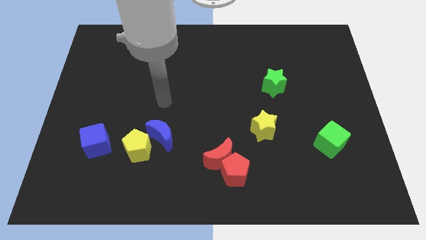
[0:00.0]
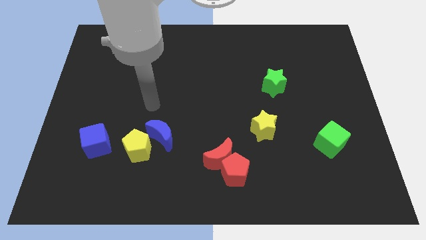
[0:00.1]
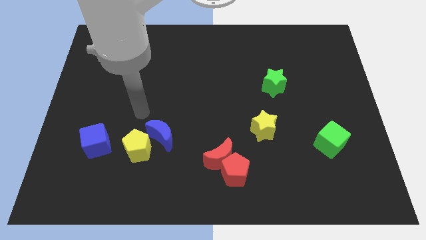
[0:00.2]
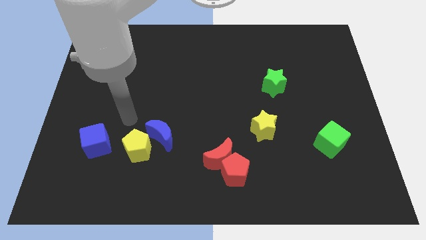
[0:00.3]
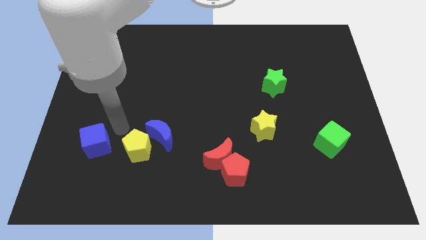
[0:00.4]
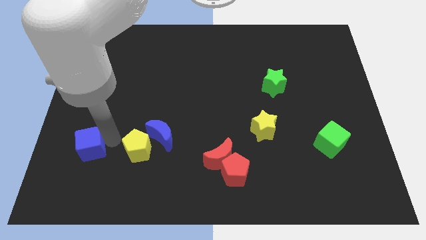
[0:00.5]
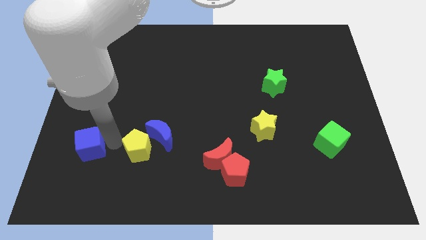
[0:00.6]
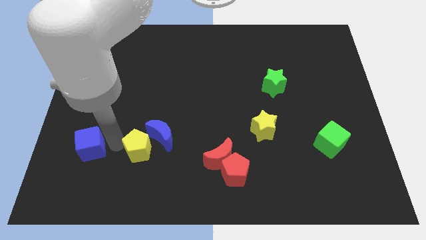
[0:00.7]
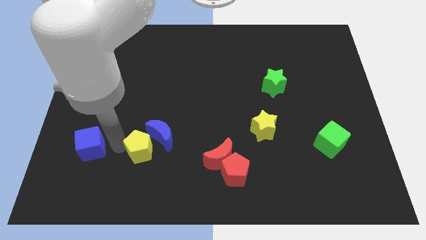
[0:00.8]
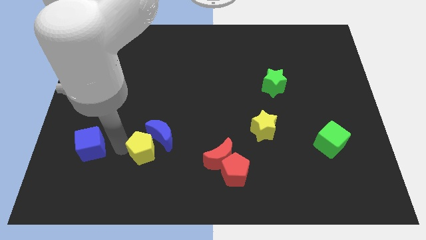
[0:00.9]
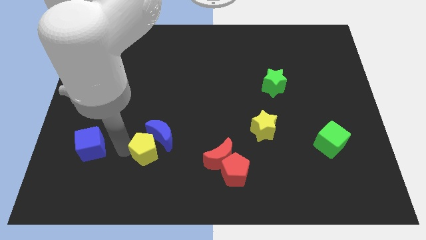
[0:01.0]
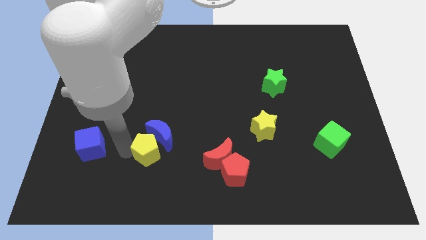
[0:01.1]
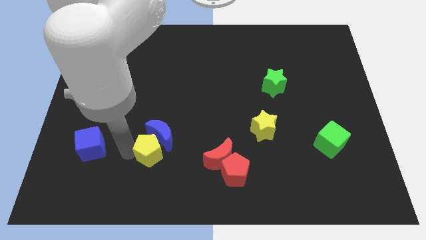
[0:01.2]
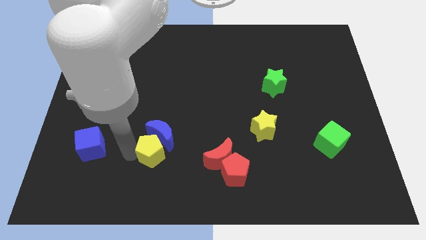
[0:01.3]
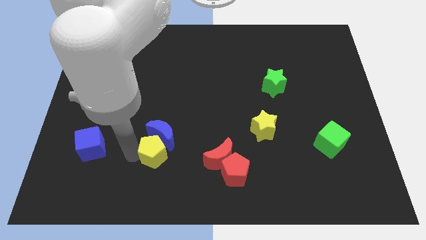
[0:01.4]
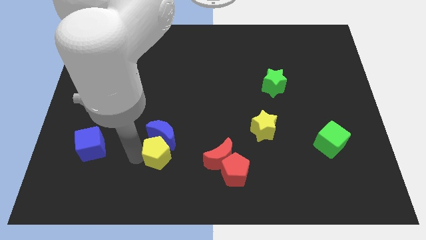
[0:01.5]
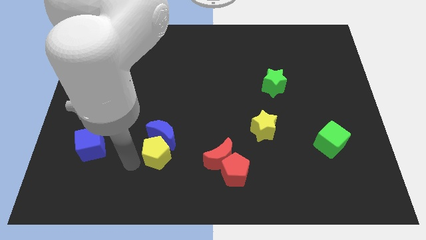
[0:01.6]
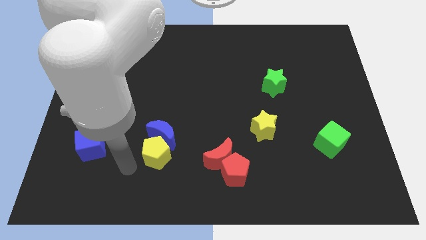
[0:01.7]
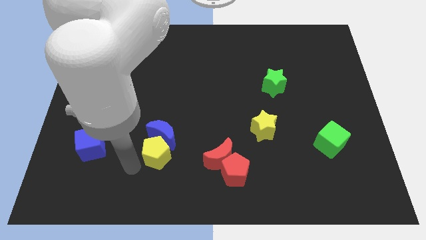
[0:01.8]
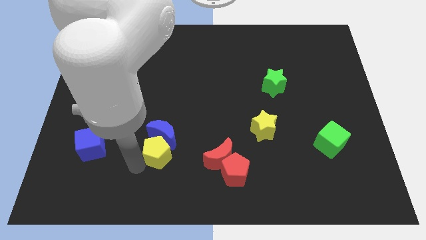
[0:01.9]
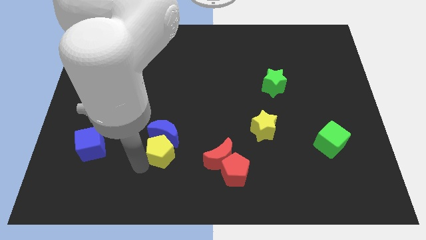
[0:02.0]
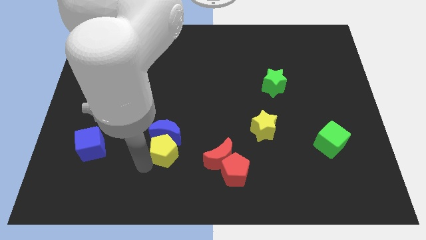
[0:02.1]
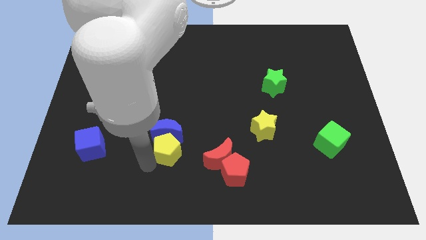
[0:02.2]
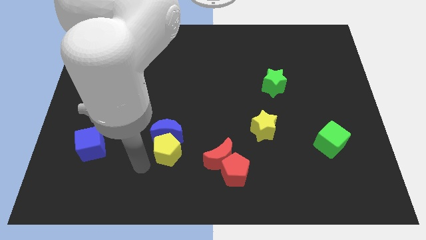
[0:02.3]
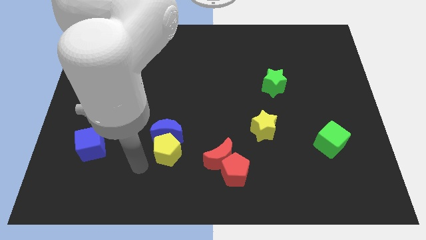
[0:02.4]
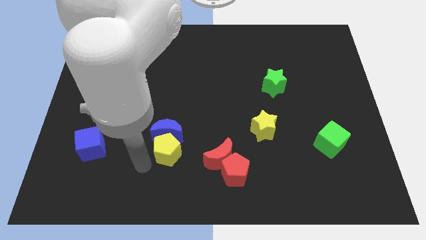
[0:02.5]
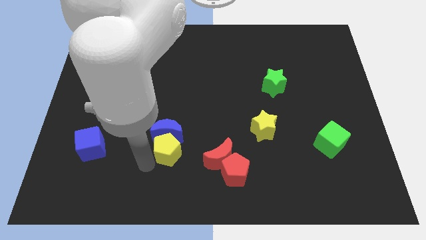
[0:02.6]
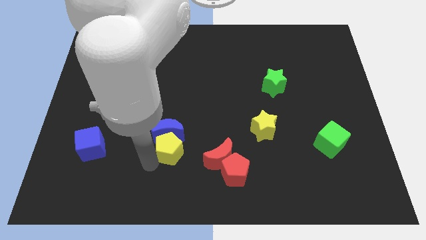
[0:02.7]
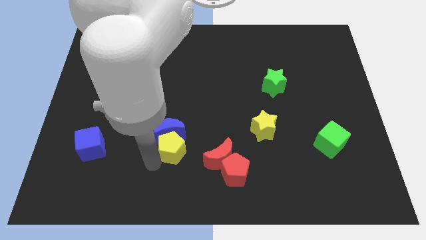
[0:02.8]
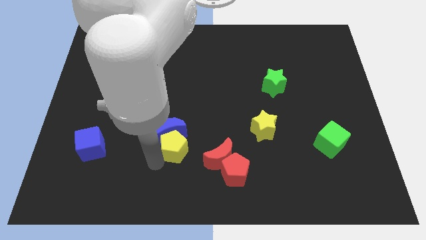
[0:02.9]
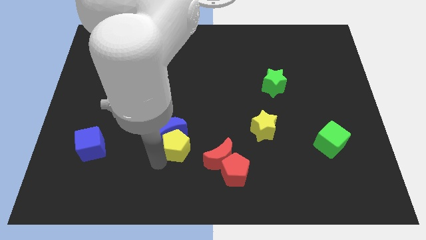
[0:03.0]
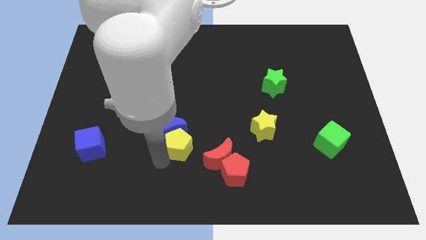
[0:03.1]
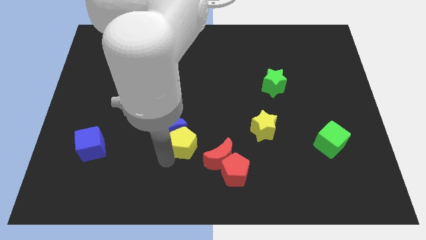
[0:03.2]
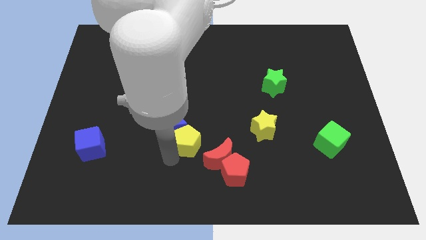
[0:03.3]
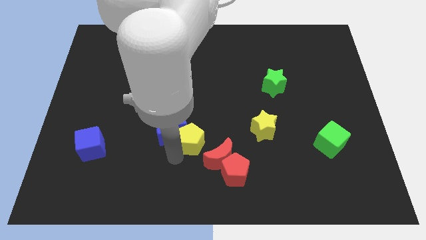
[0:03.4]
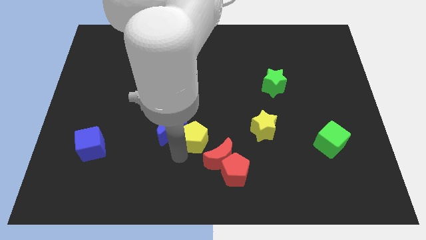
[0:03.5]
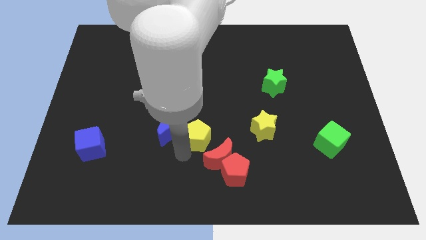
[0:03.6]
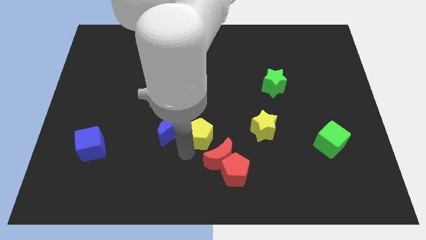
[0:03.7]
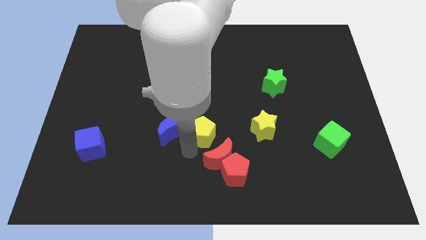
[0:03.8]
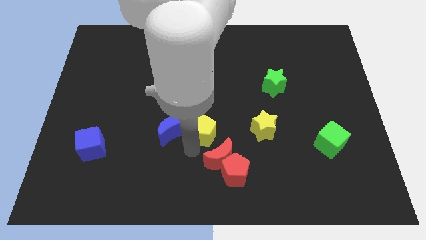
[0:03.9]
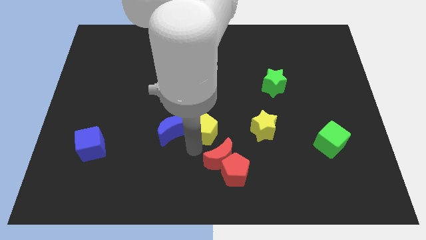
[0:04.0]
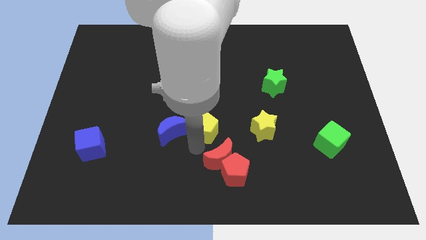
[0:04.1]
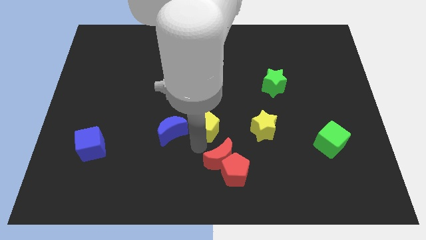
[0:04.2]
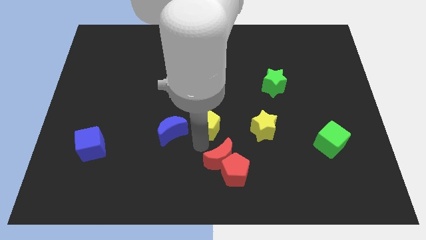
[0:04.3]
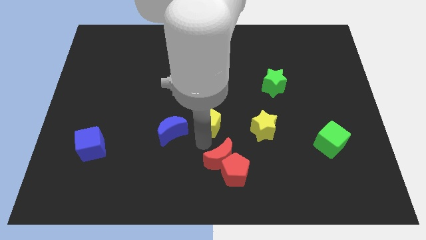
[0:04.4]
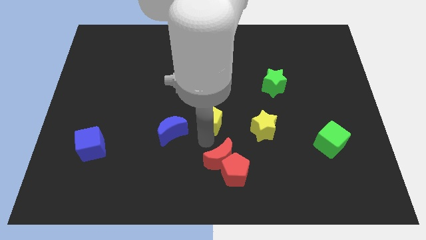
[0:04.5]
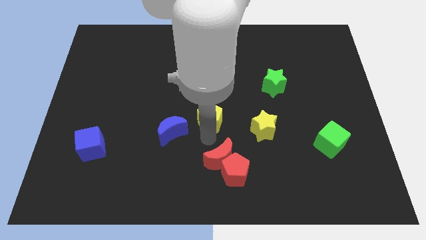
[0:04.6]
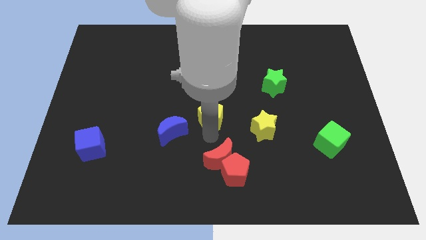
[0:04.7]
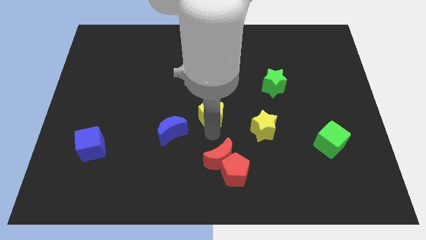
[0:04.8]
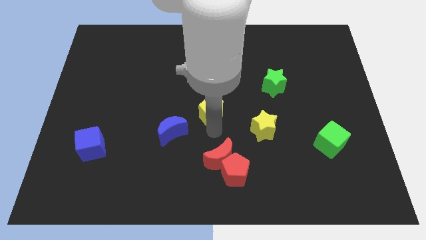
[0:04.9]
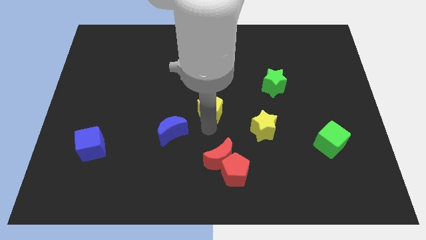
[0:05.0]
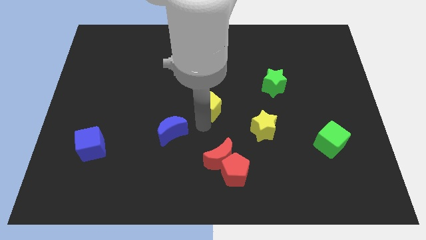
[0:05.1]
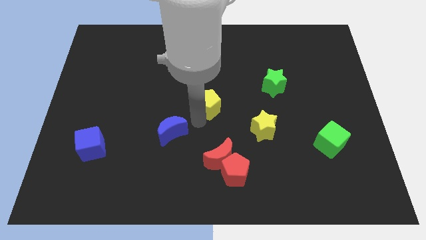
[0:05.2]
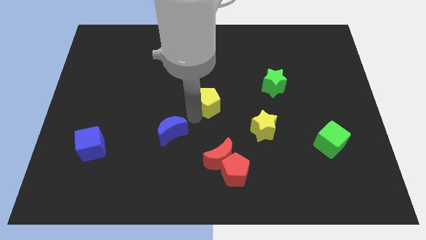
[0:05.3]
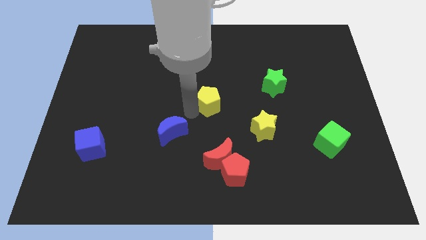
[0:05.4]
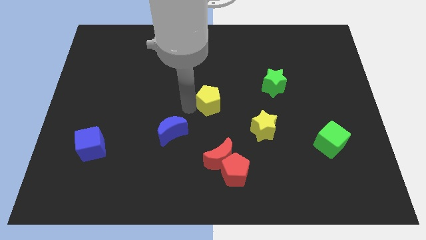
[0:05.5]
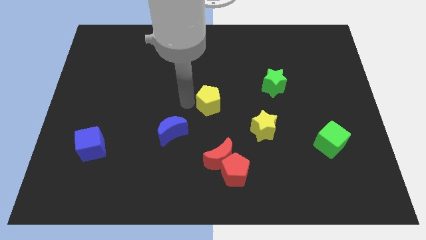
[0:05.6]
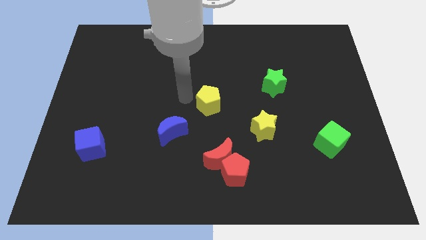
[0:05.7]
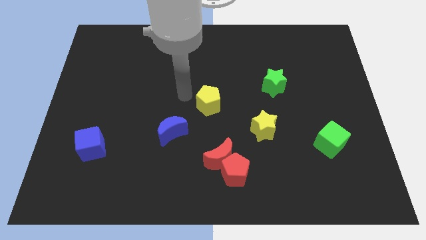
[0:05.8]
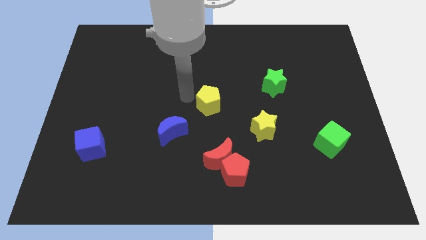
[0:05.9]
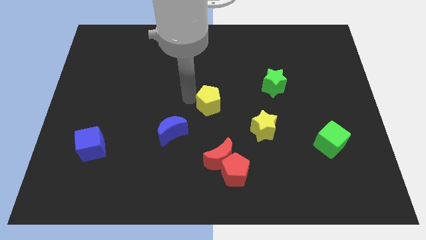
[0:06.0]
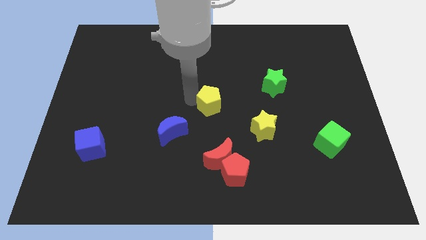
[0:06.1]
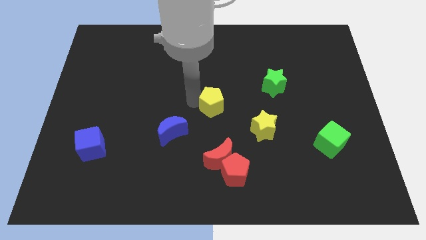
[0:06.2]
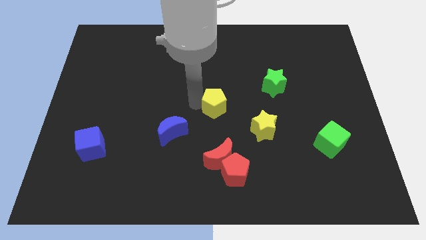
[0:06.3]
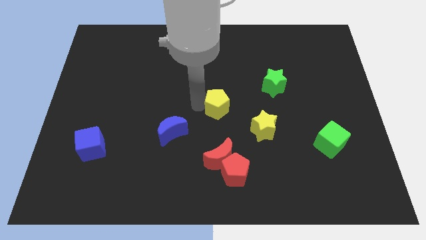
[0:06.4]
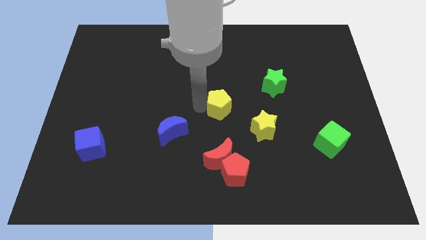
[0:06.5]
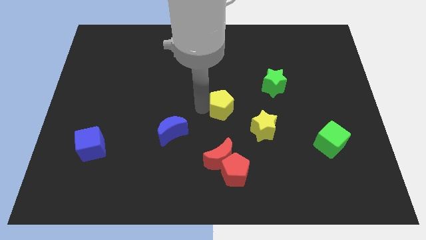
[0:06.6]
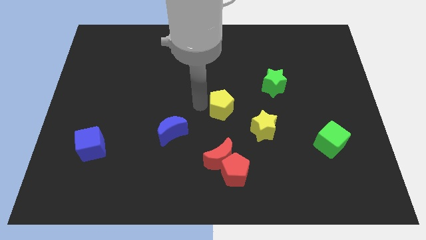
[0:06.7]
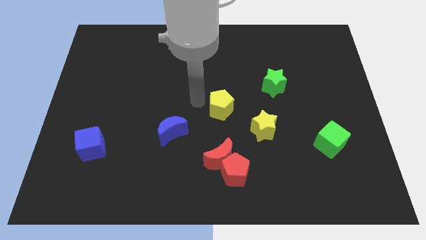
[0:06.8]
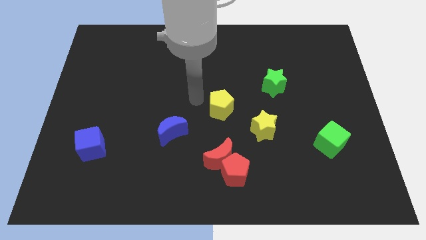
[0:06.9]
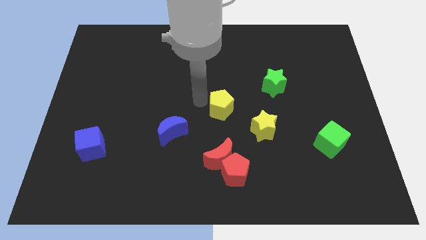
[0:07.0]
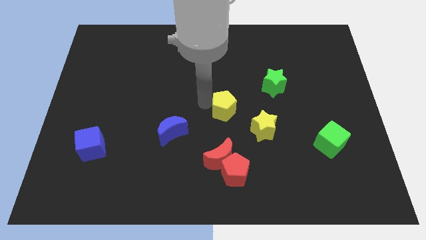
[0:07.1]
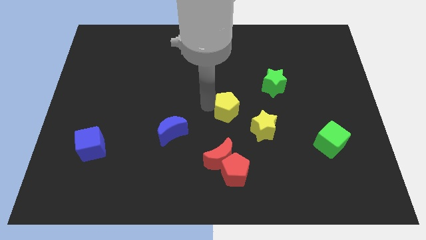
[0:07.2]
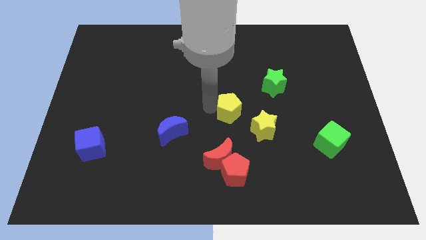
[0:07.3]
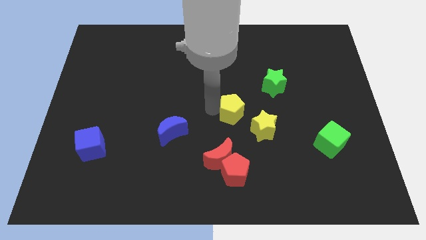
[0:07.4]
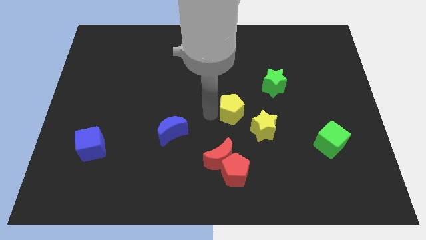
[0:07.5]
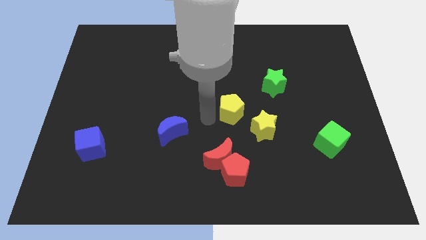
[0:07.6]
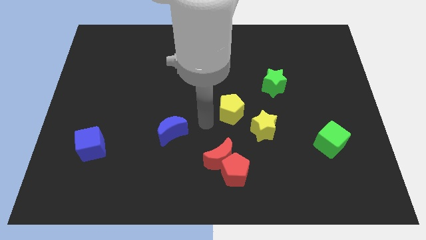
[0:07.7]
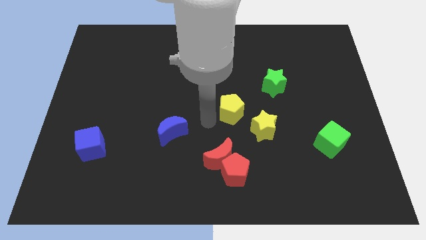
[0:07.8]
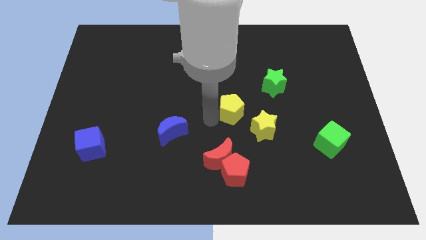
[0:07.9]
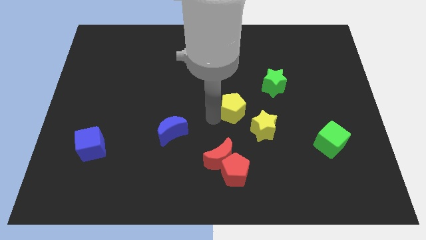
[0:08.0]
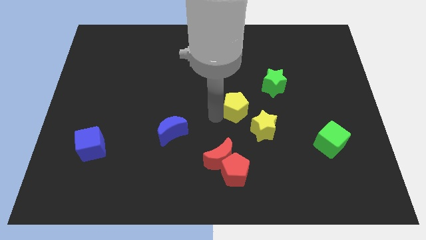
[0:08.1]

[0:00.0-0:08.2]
move the yellow pentagon to the bottom left side of the green star
